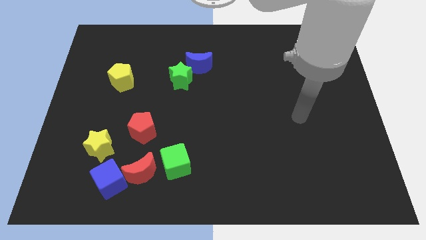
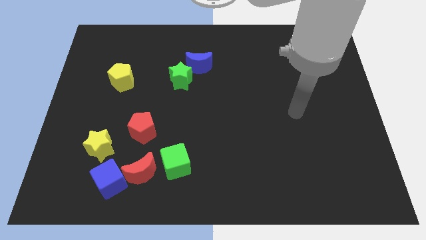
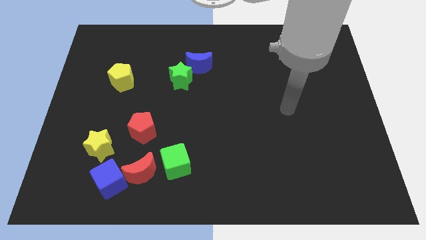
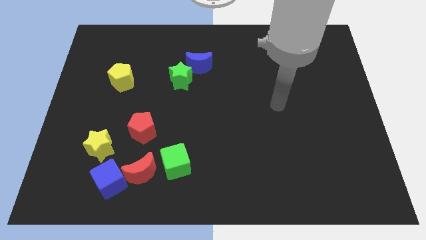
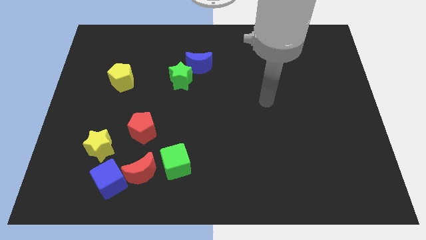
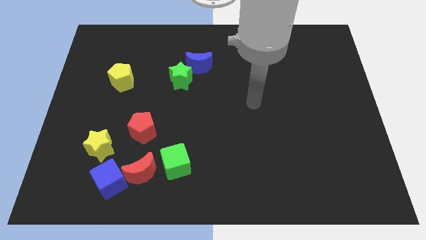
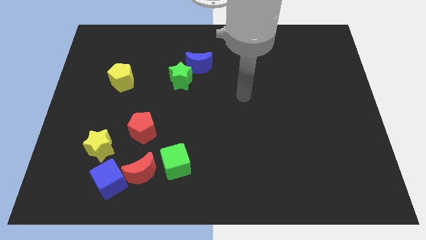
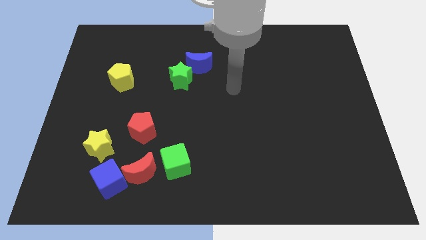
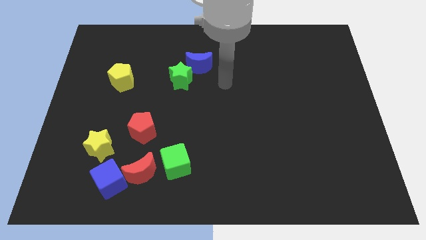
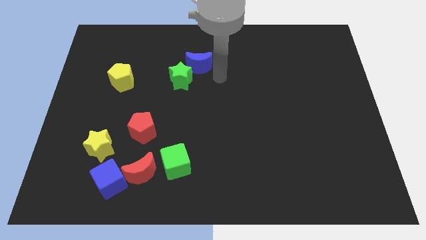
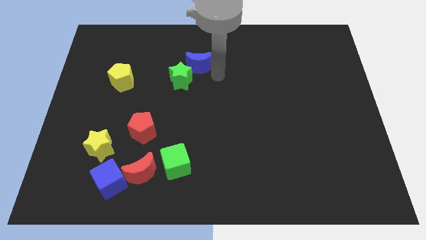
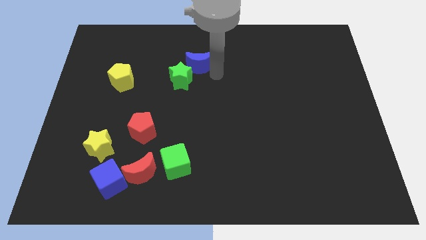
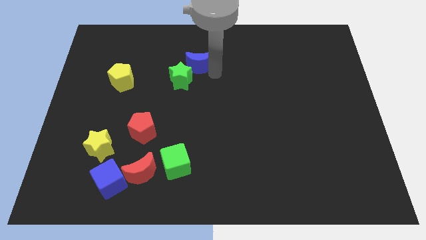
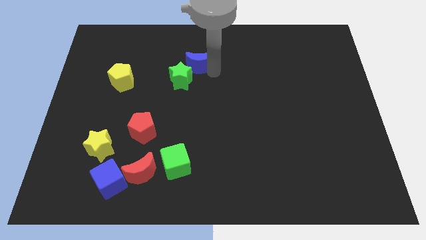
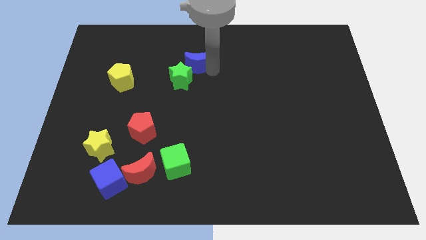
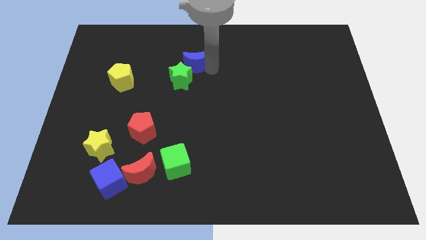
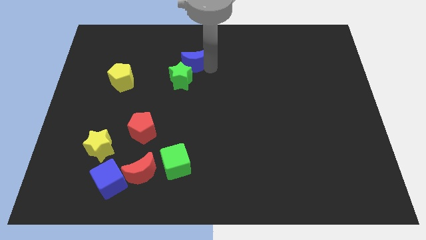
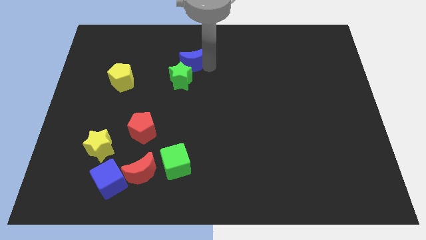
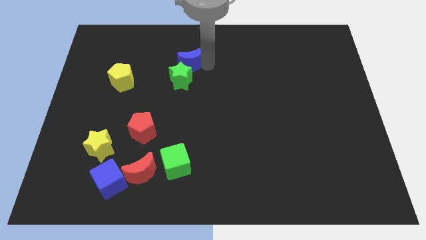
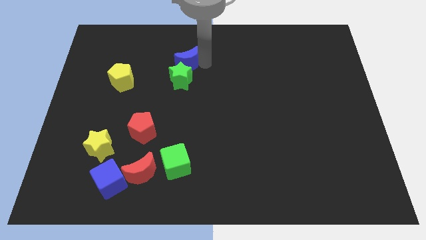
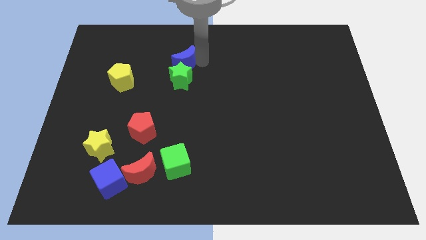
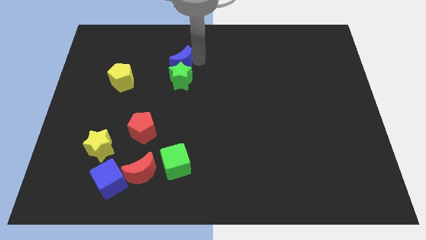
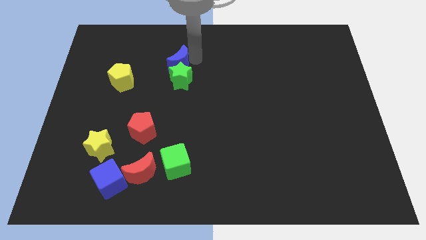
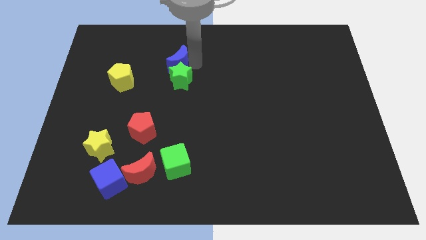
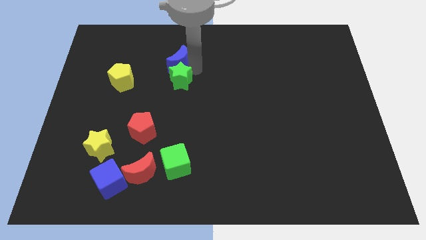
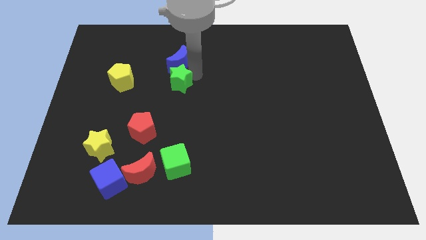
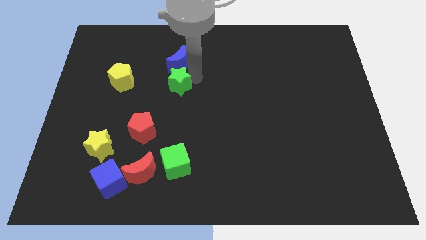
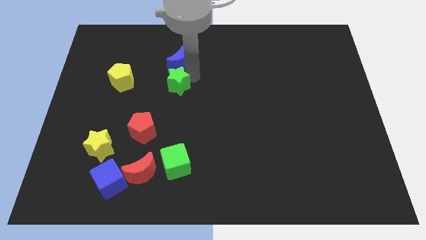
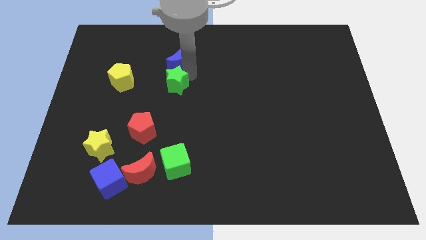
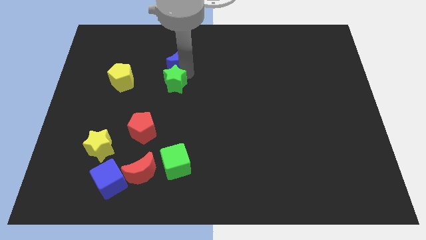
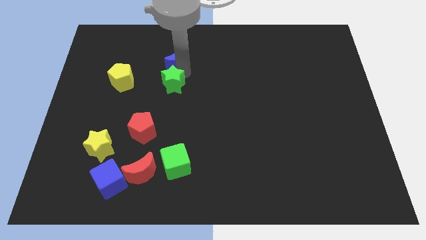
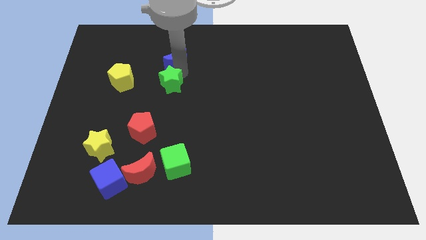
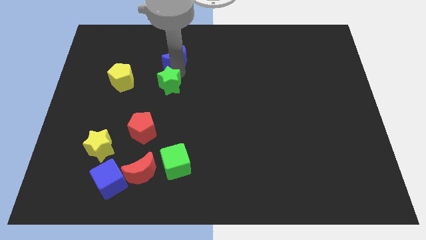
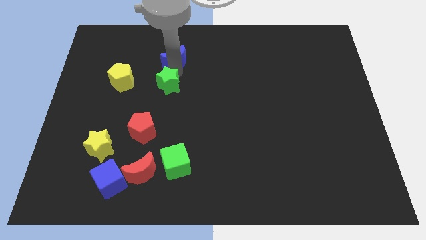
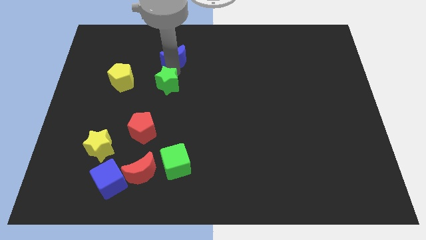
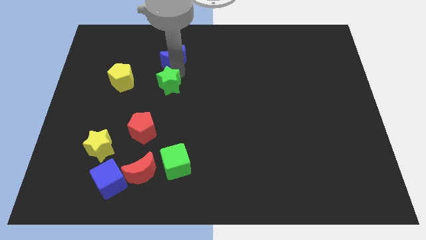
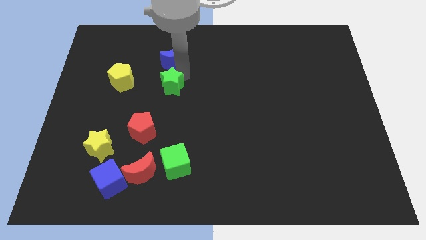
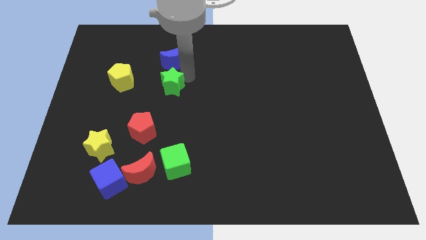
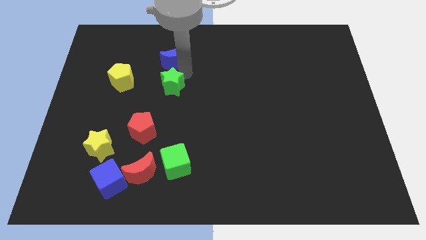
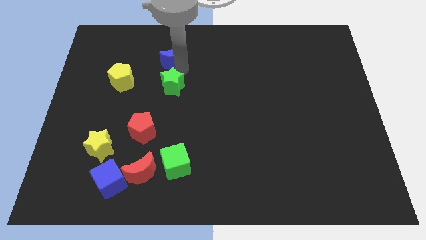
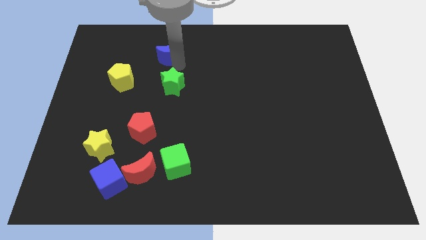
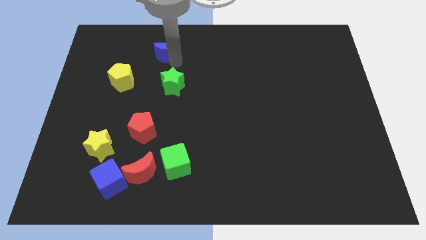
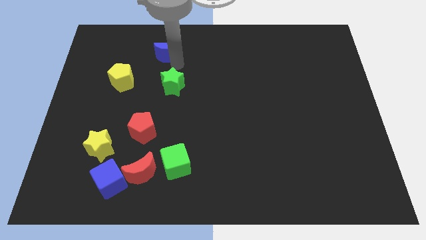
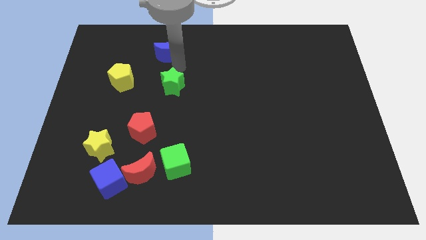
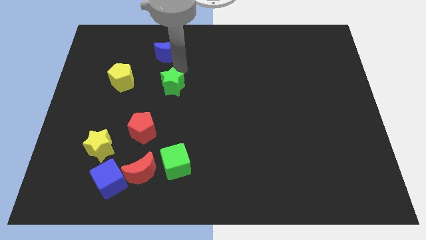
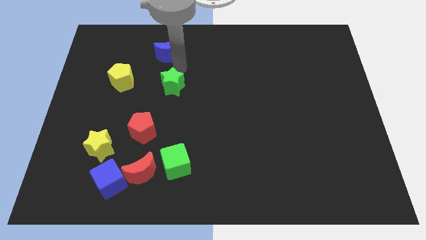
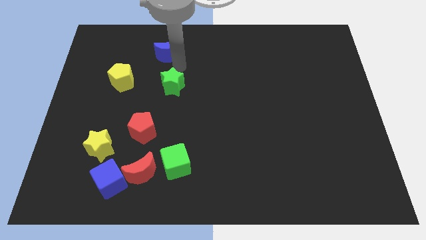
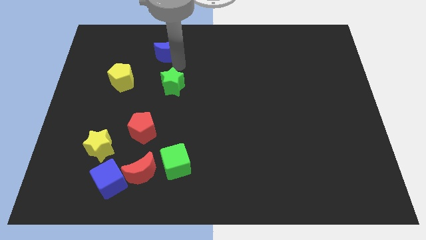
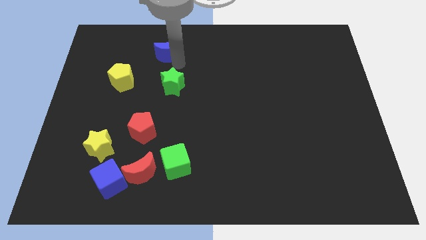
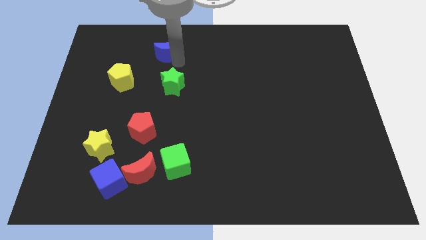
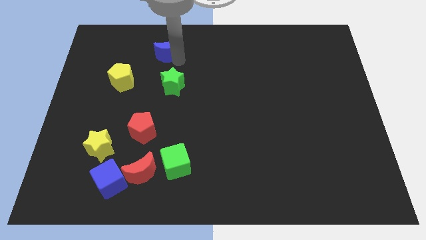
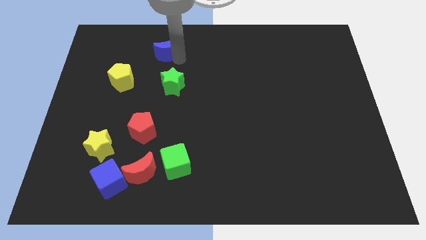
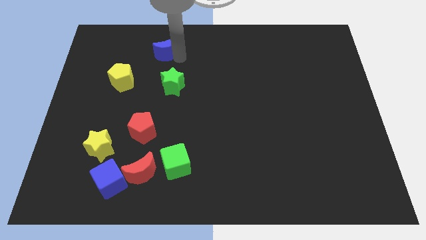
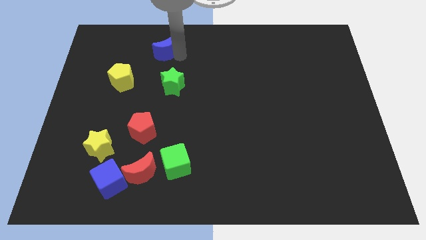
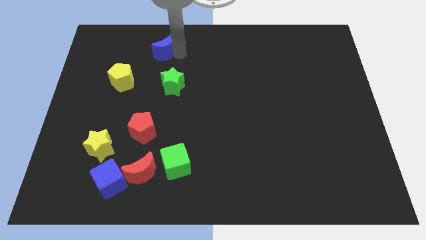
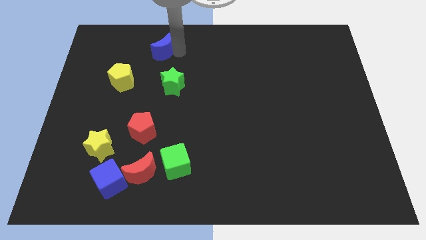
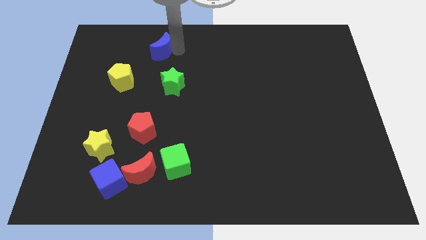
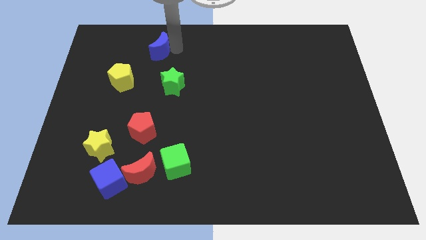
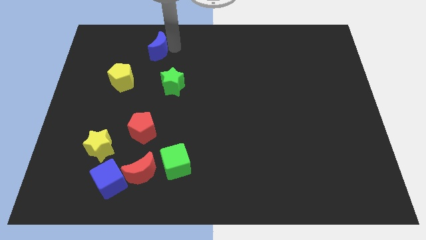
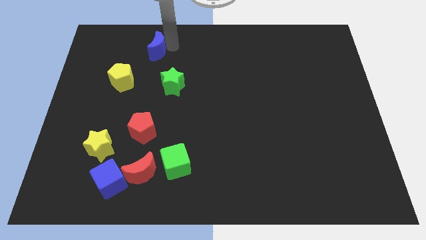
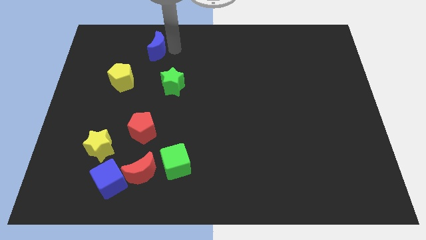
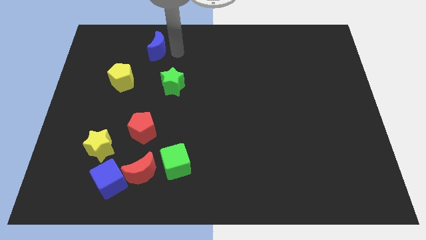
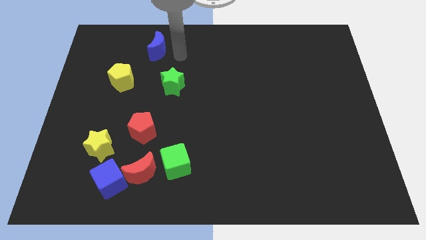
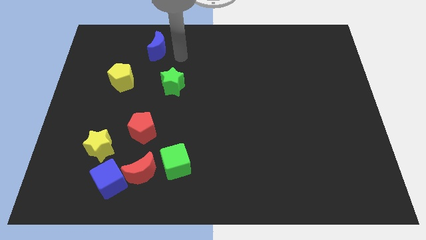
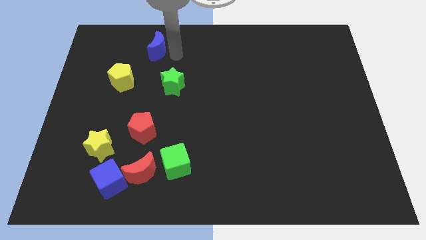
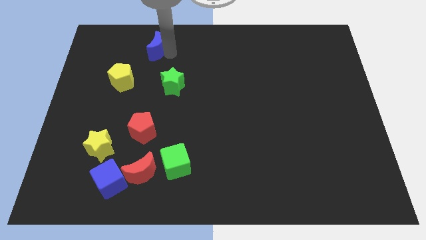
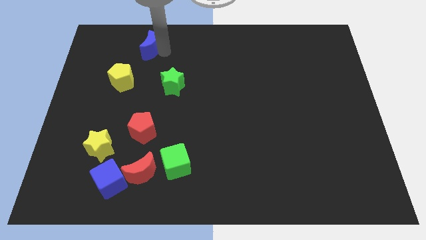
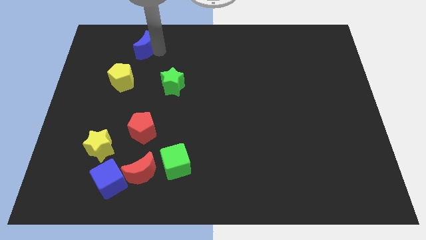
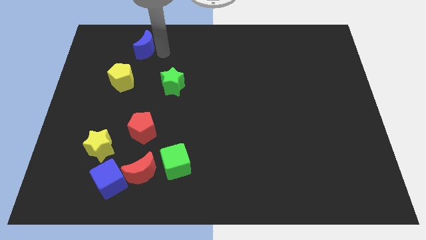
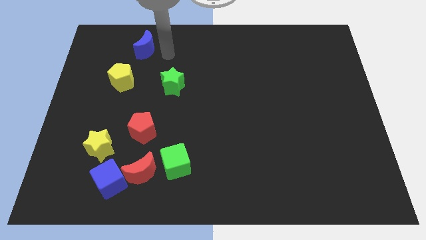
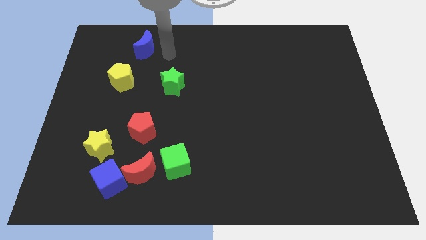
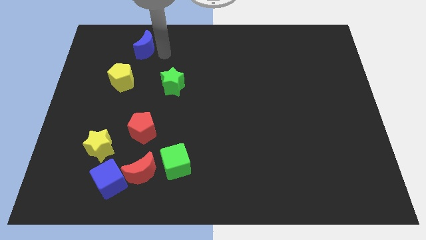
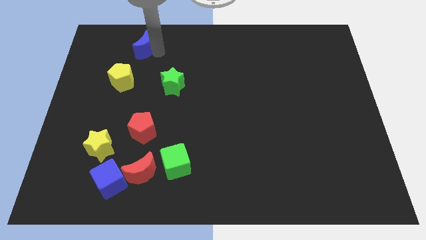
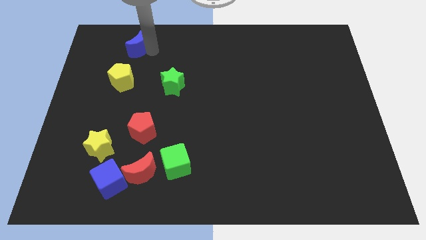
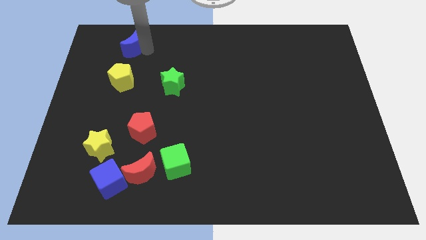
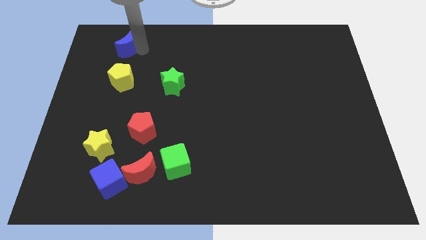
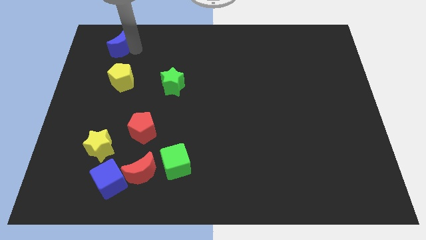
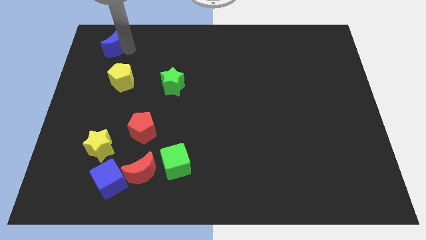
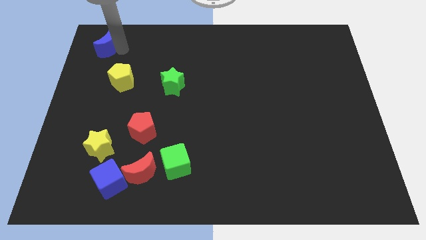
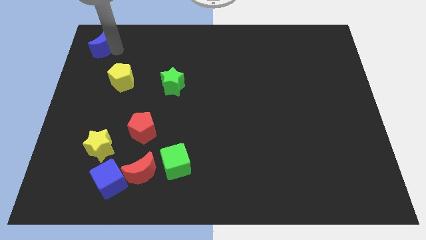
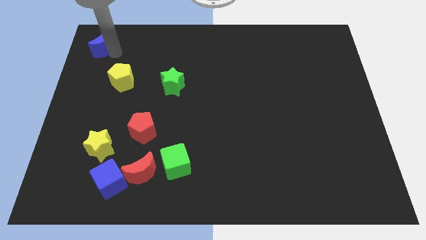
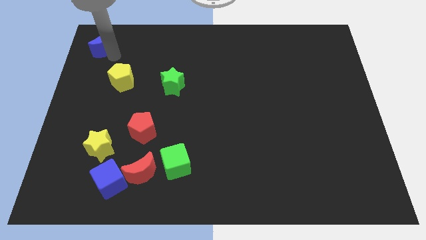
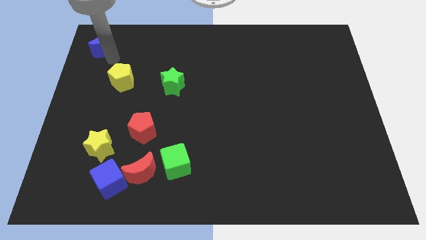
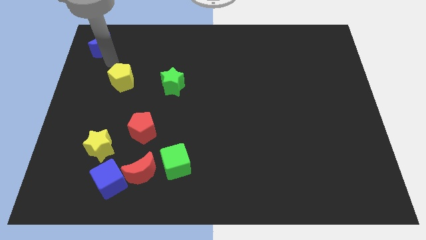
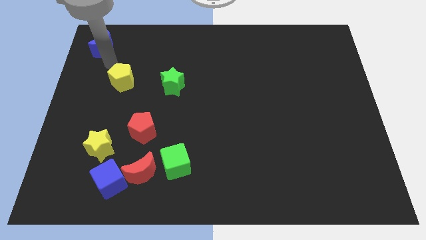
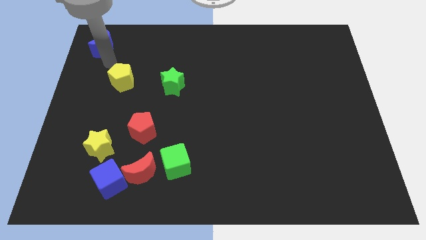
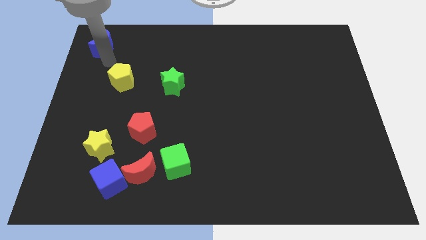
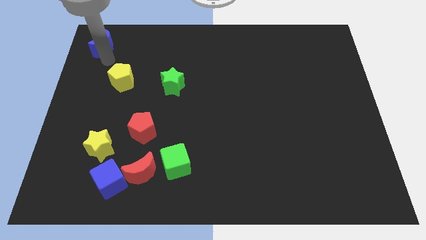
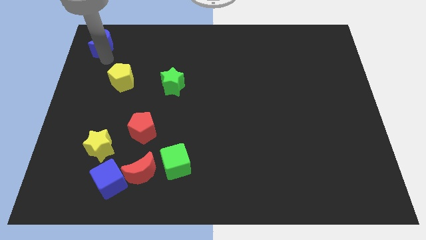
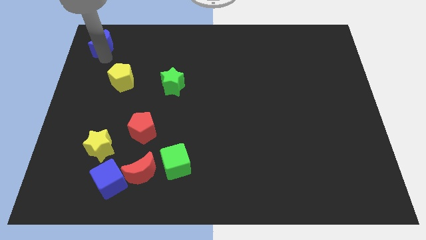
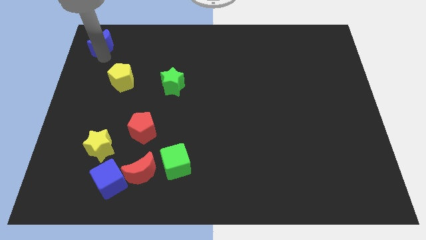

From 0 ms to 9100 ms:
slide the blue moon to the top left of the board
